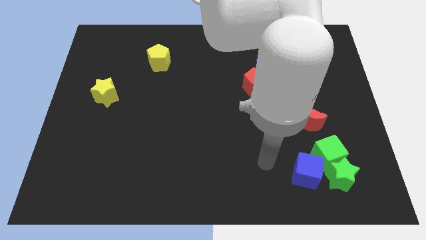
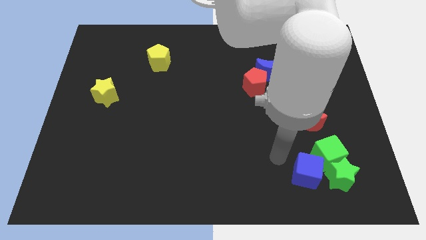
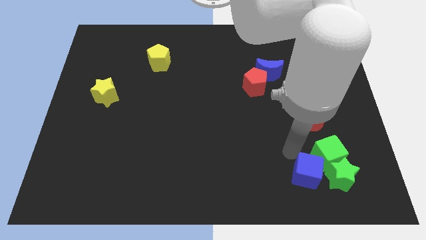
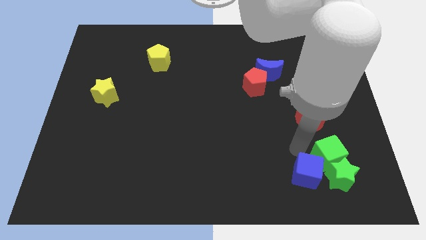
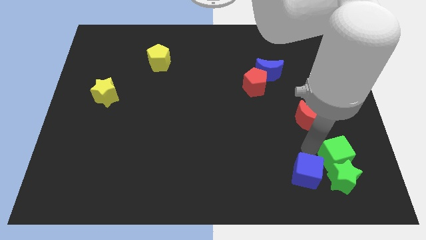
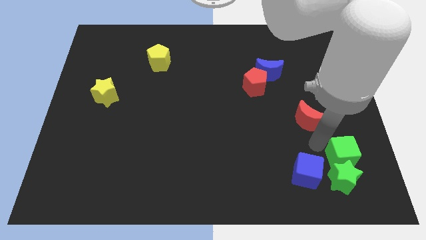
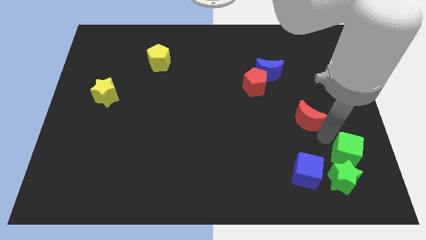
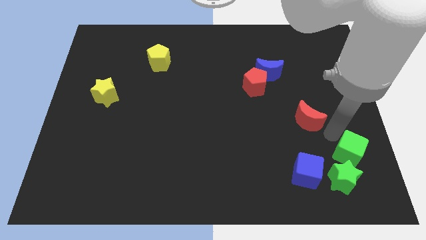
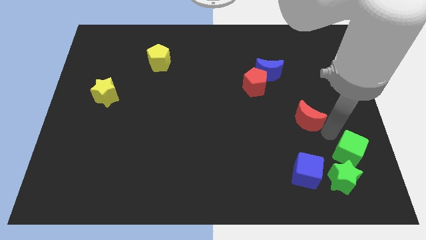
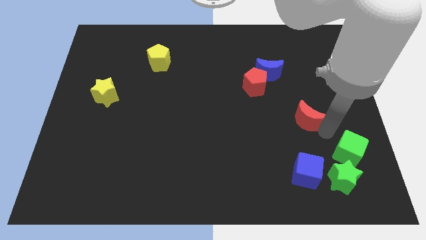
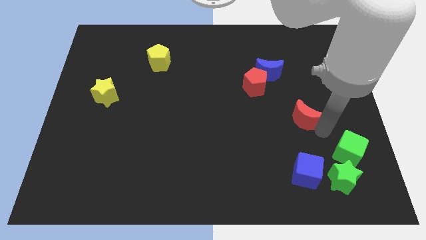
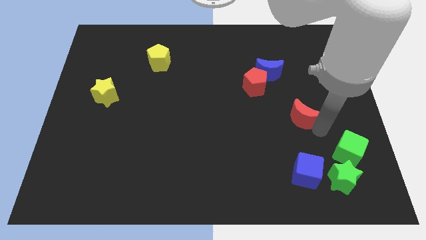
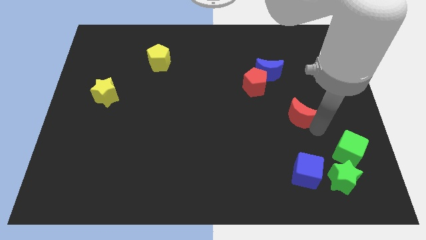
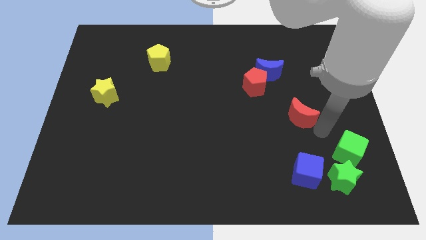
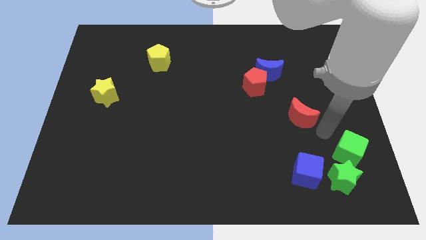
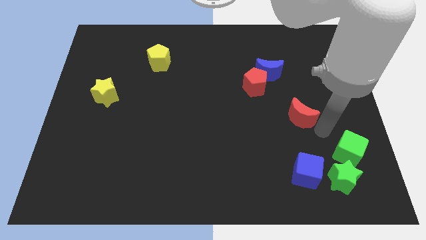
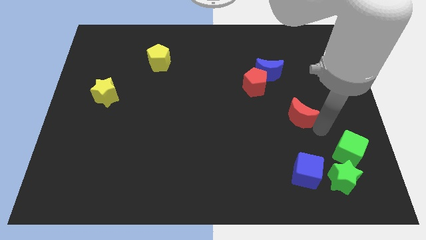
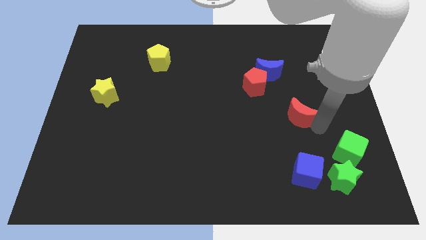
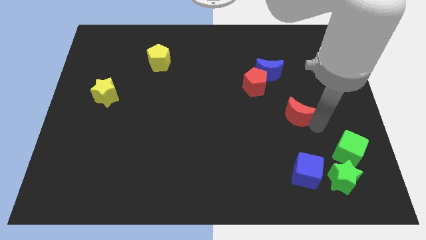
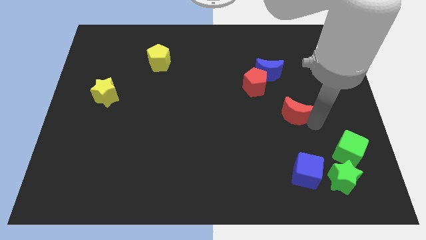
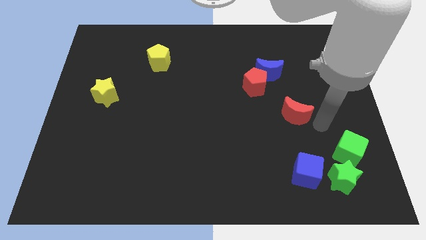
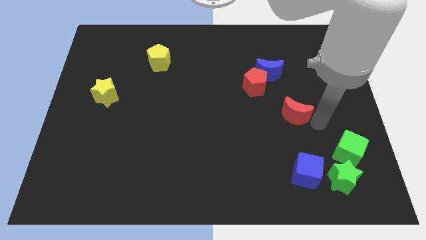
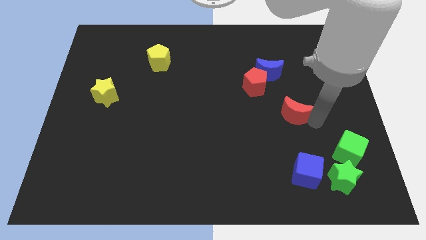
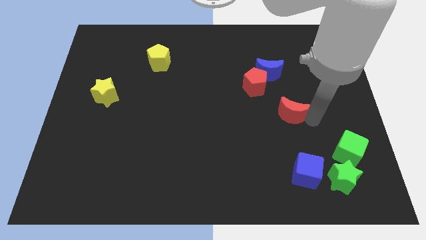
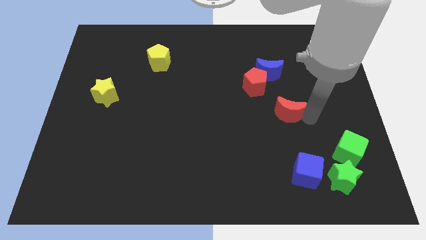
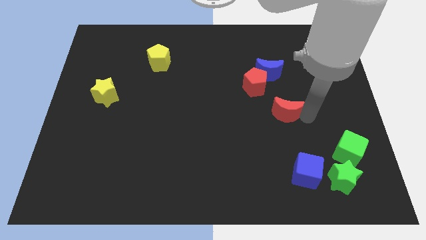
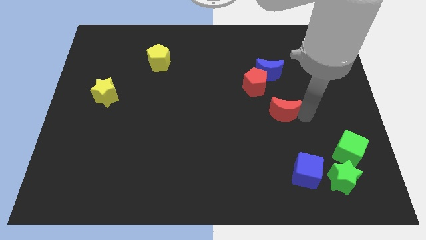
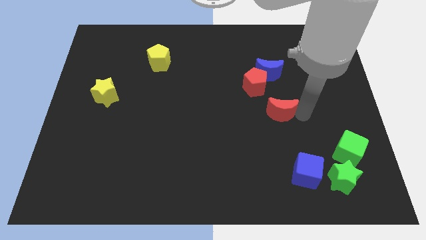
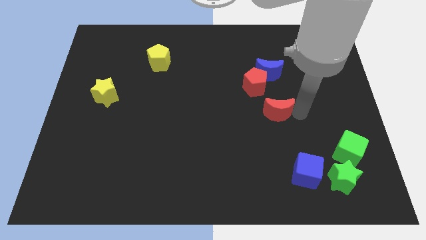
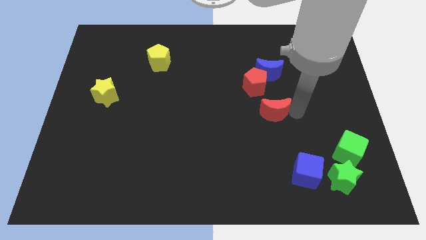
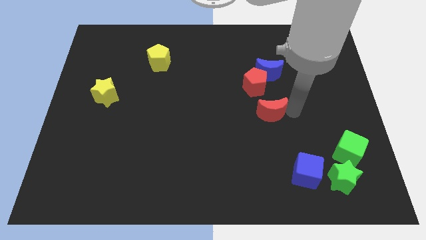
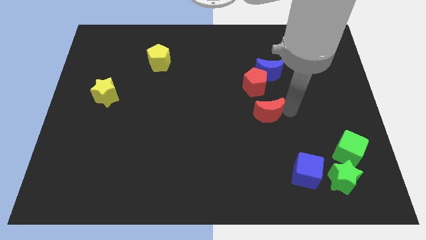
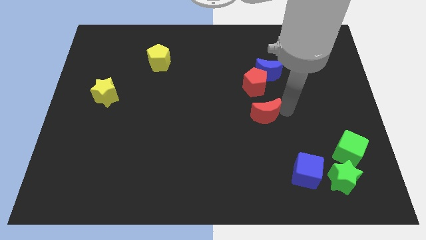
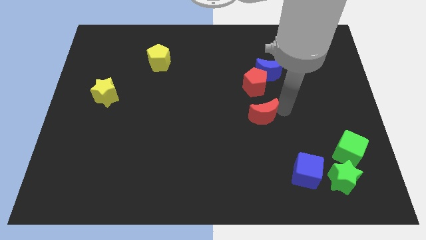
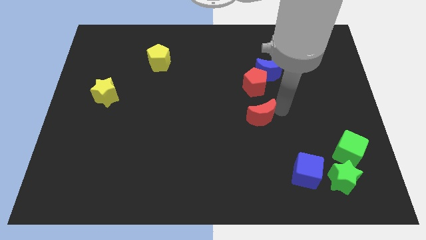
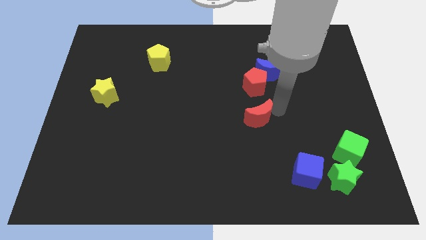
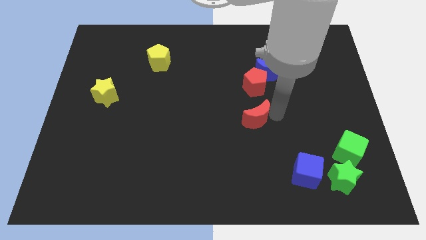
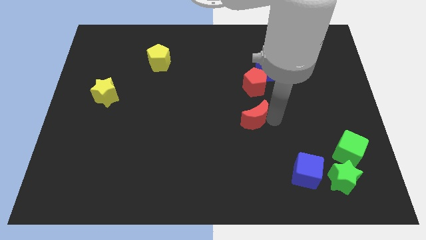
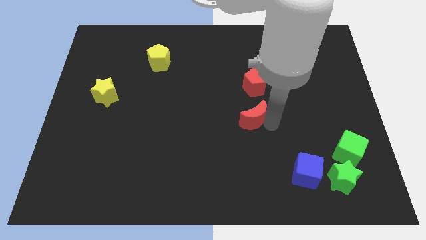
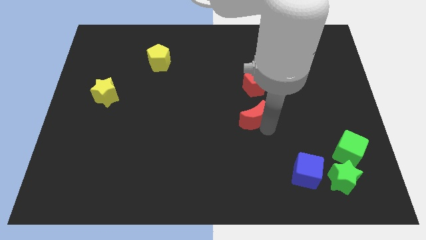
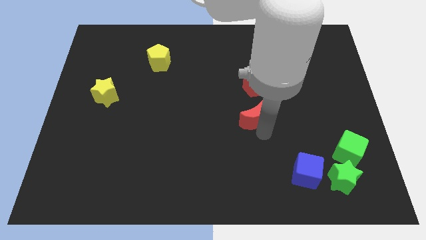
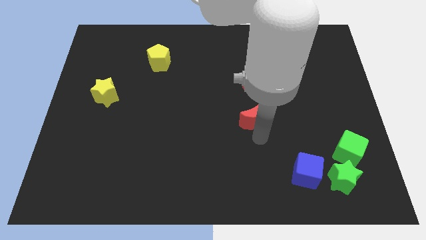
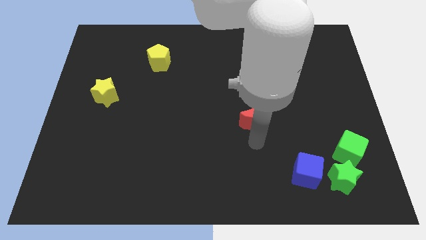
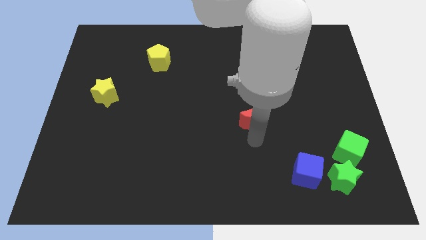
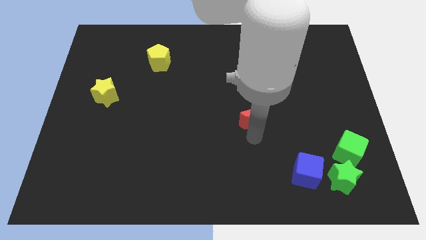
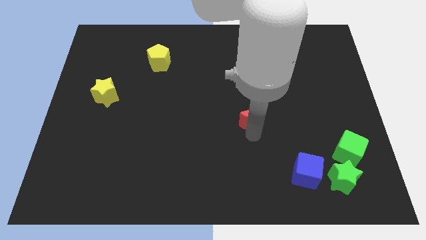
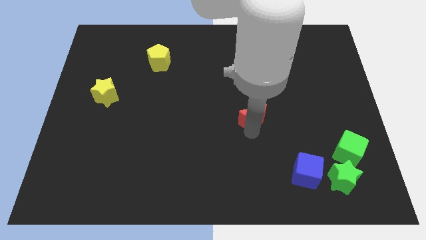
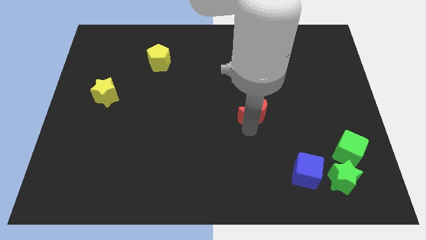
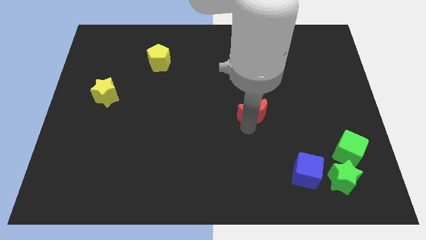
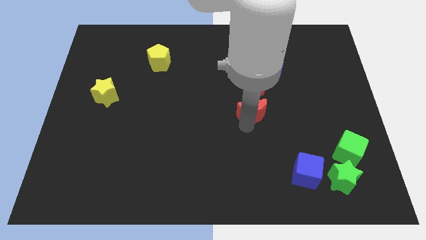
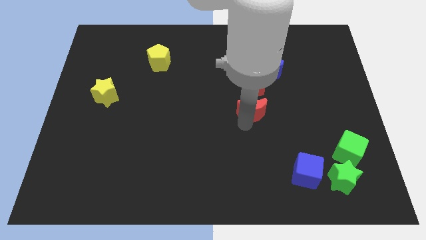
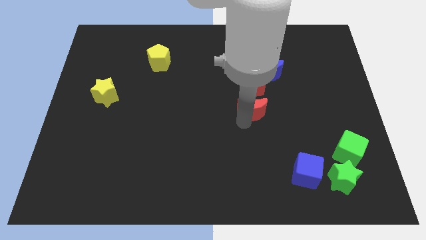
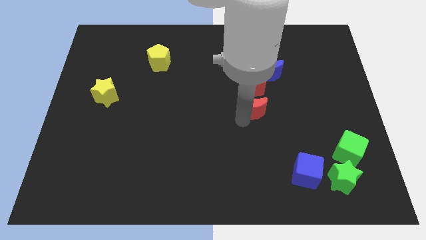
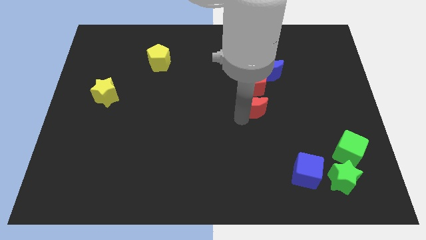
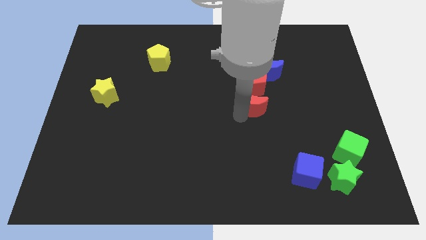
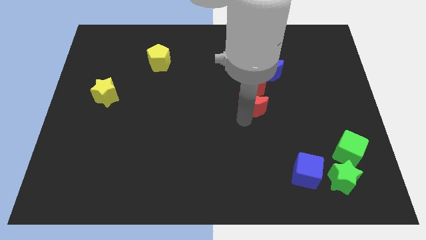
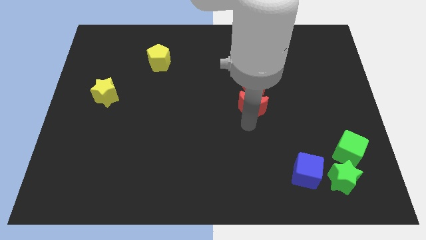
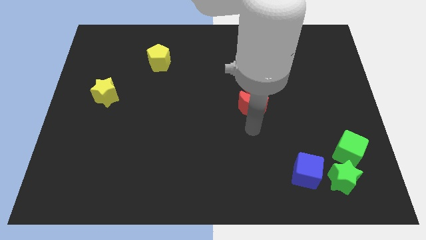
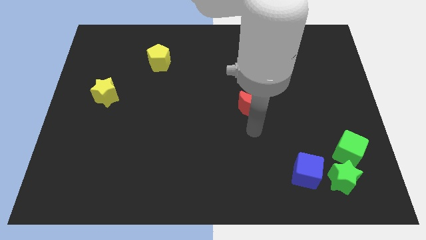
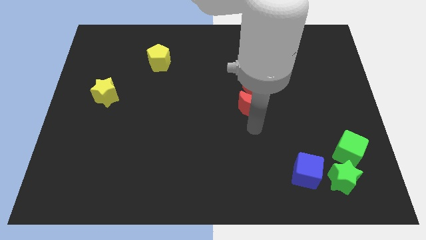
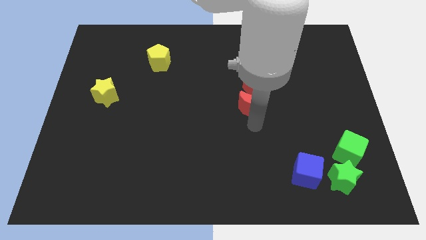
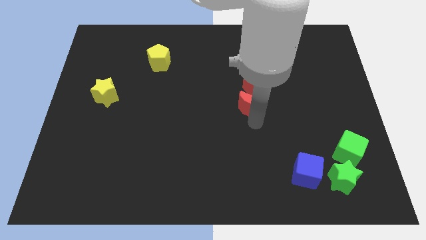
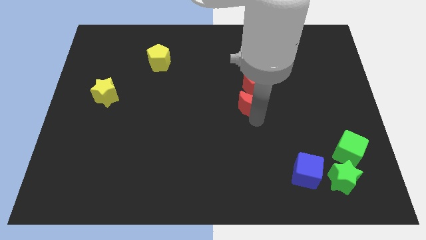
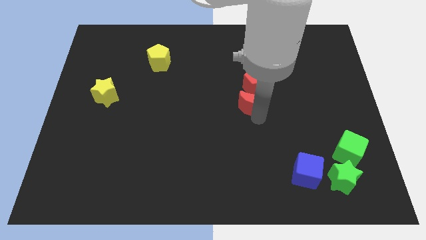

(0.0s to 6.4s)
slide the red moon diagonally down and to the left of the blue moon

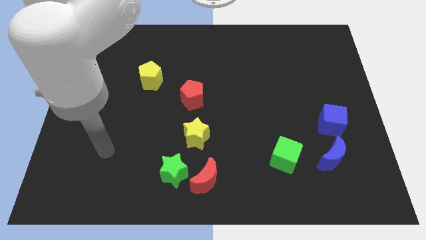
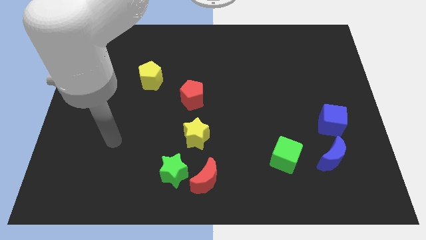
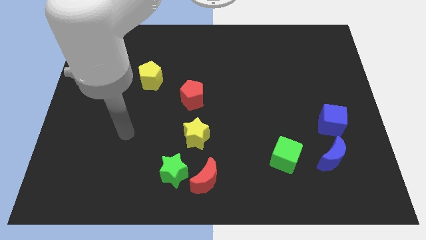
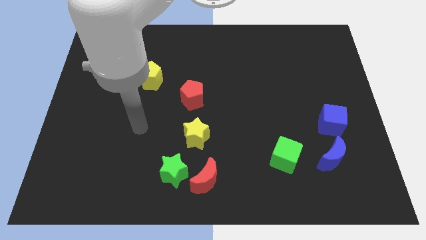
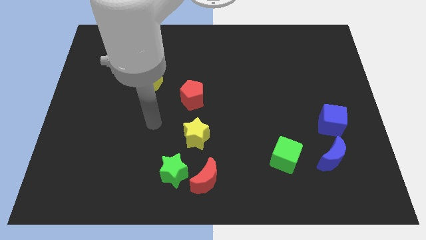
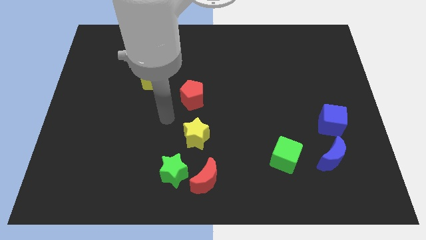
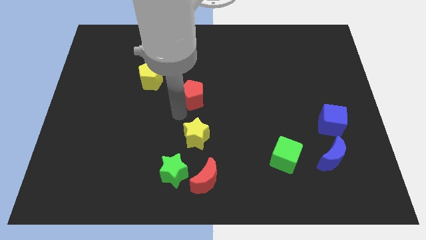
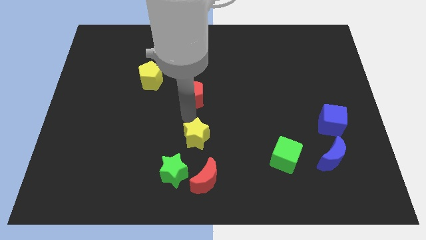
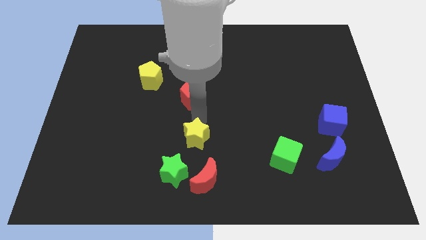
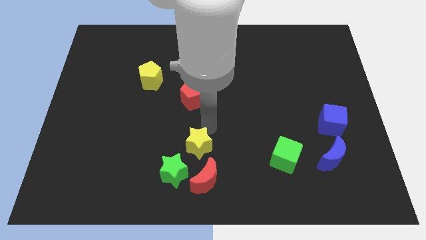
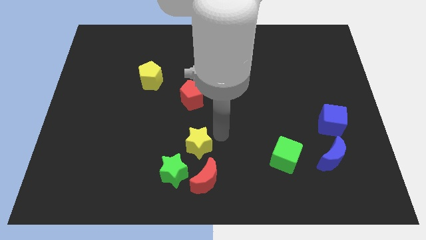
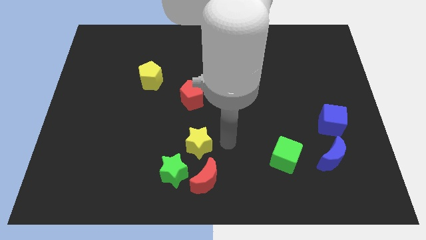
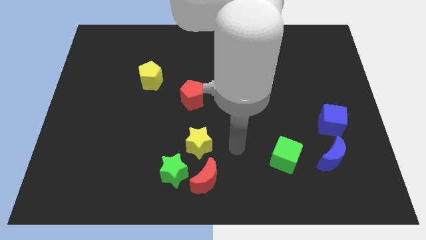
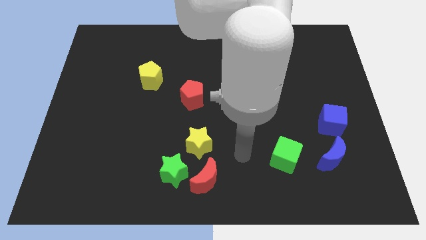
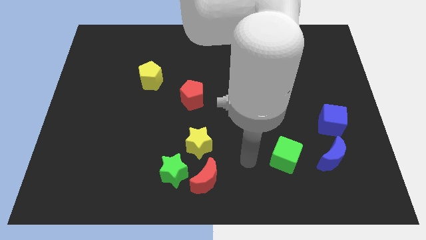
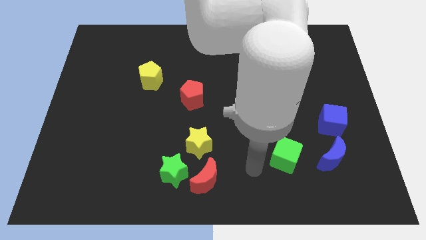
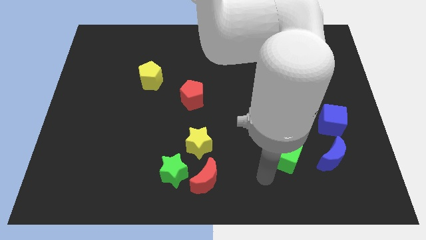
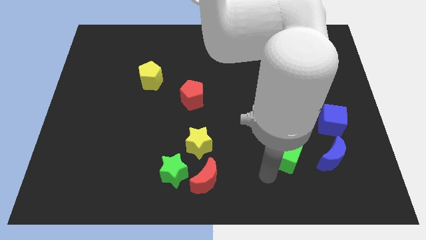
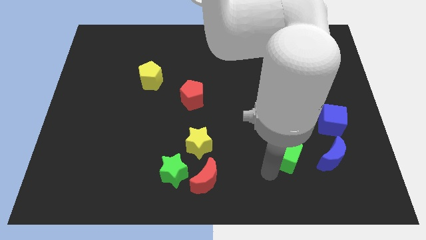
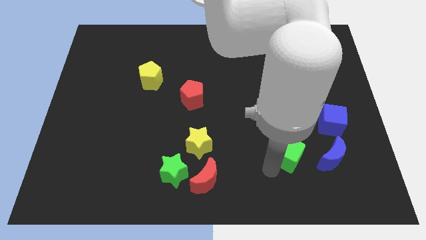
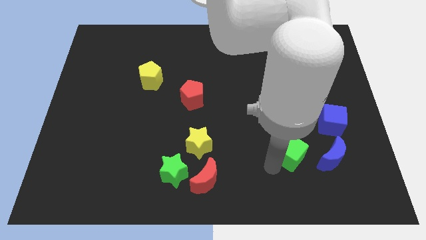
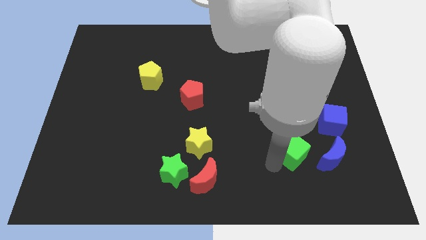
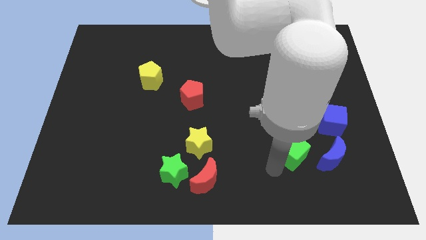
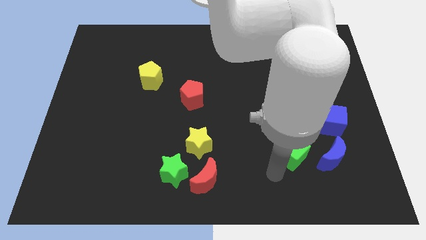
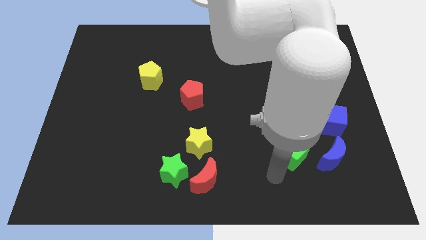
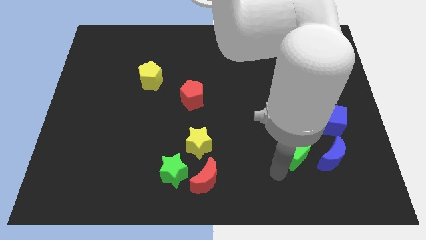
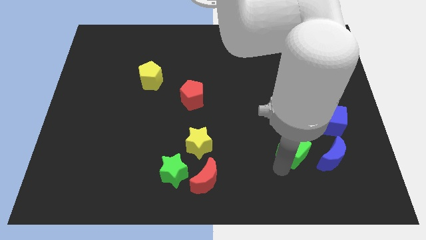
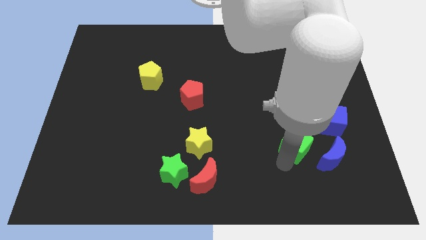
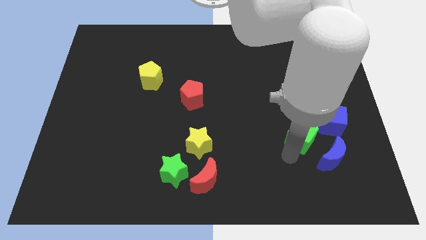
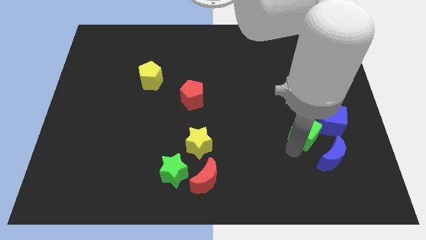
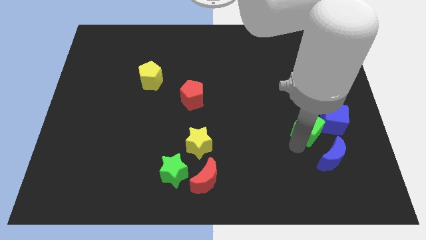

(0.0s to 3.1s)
slide the green cube to the top side of the blue moon
